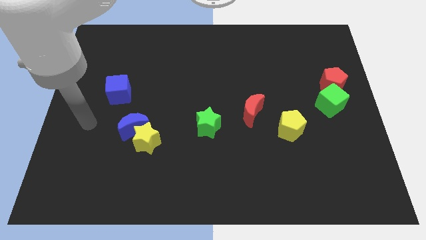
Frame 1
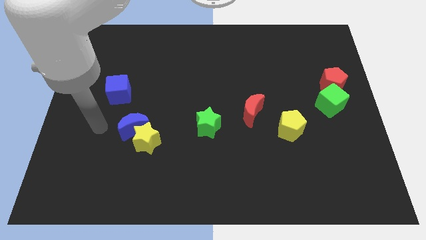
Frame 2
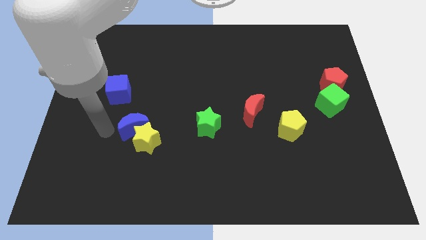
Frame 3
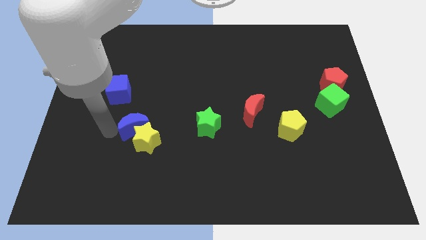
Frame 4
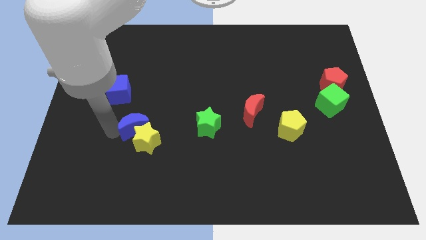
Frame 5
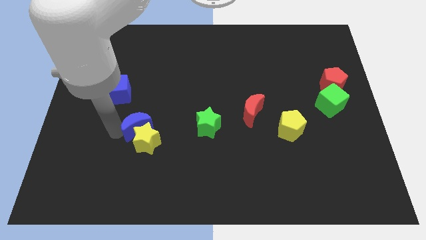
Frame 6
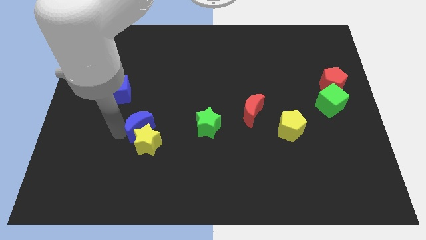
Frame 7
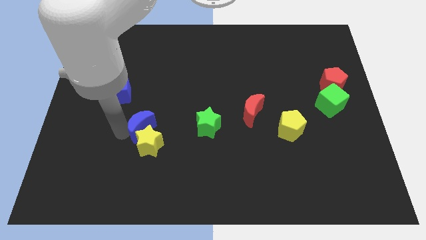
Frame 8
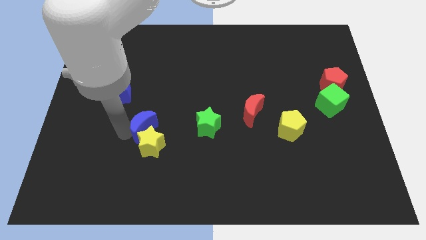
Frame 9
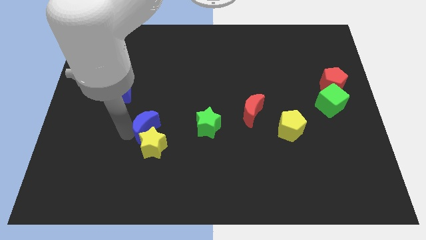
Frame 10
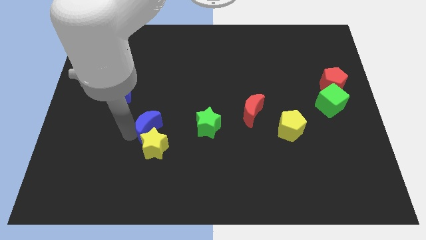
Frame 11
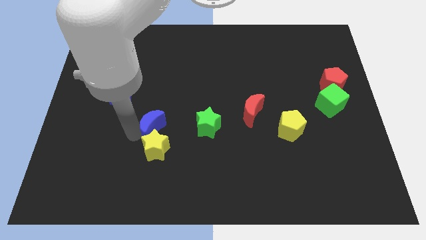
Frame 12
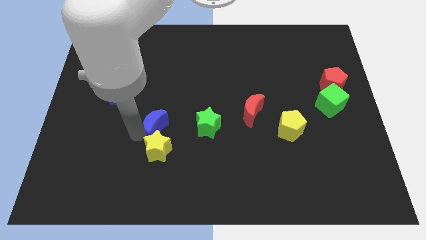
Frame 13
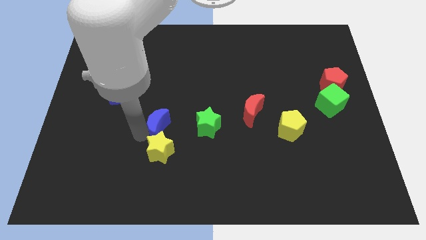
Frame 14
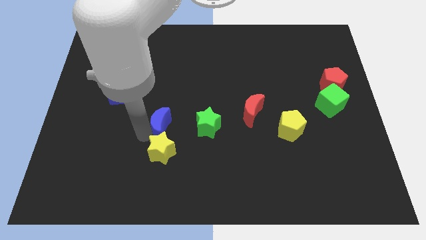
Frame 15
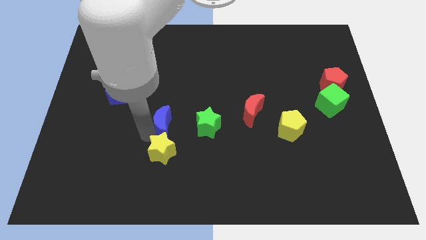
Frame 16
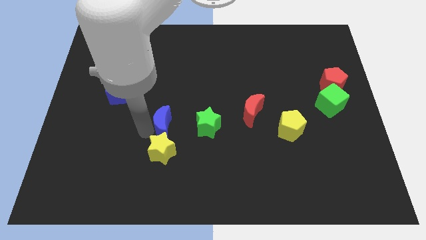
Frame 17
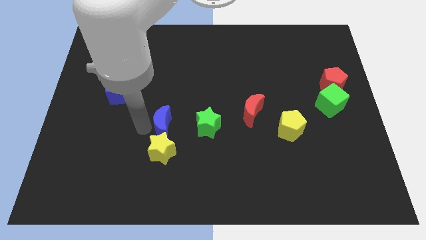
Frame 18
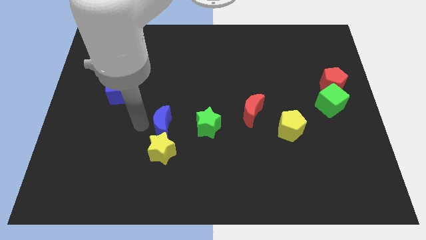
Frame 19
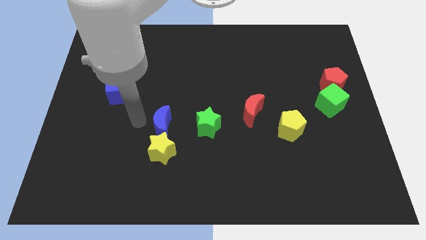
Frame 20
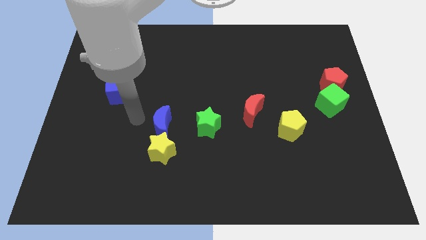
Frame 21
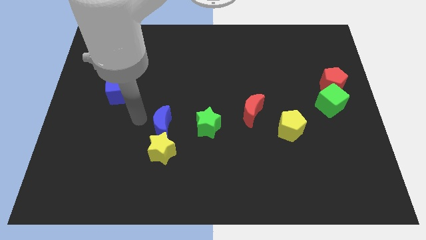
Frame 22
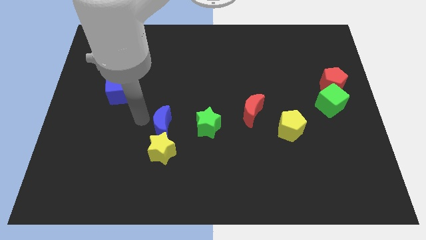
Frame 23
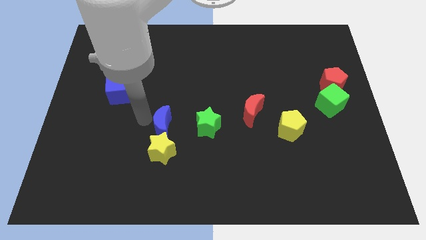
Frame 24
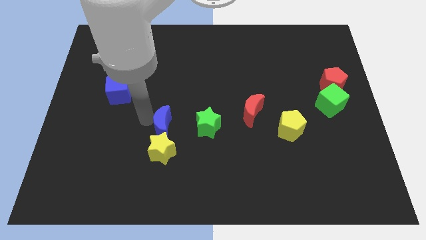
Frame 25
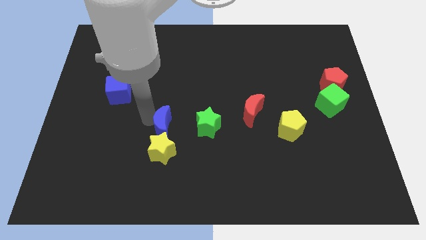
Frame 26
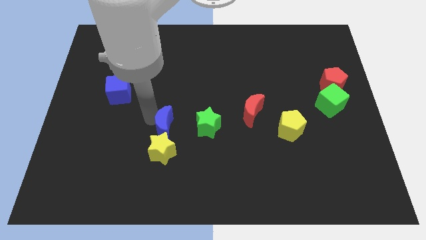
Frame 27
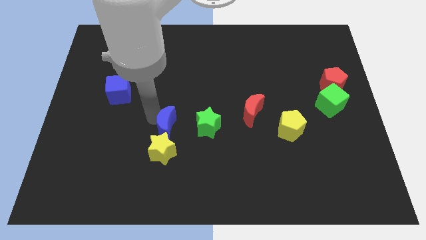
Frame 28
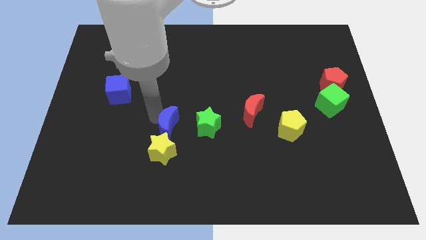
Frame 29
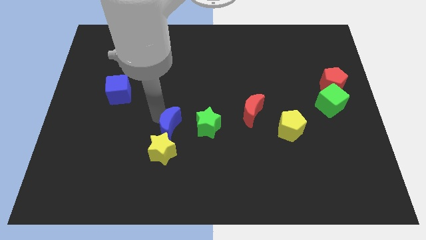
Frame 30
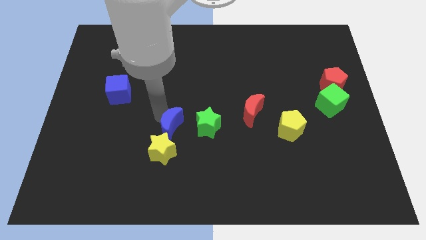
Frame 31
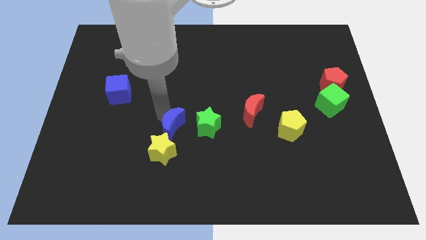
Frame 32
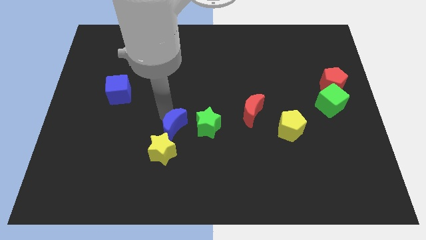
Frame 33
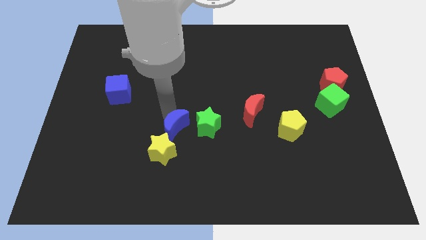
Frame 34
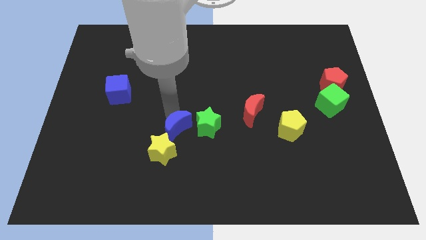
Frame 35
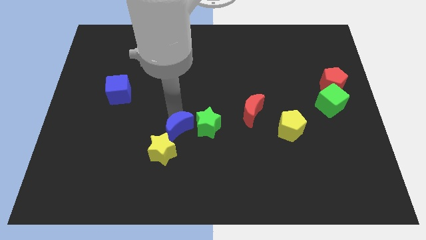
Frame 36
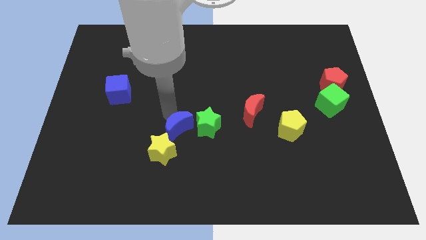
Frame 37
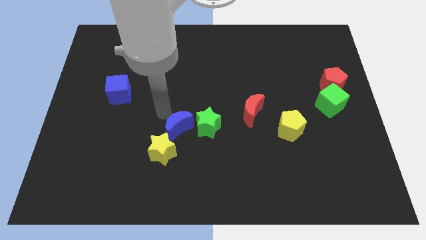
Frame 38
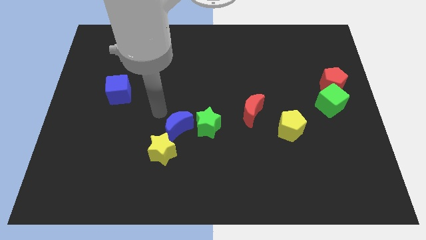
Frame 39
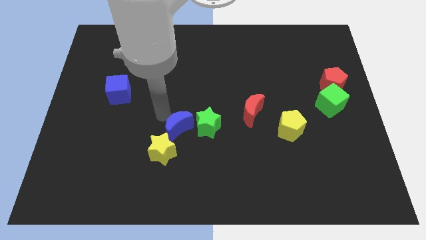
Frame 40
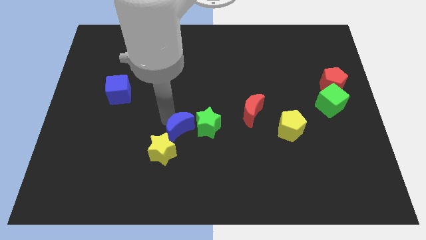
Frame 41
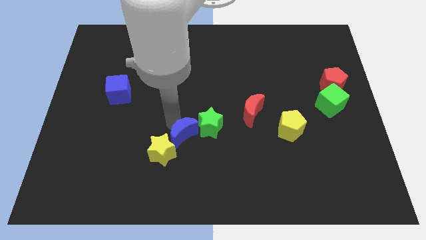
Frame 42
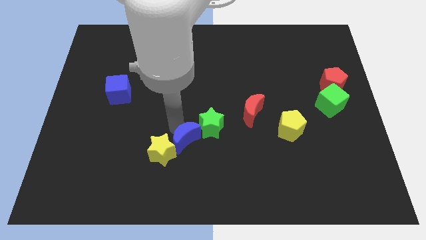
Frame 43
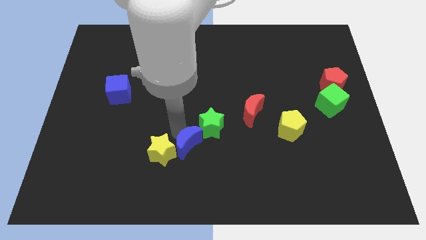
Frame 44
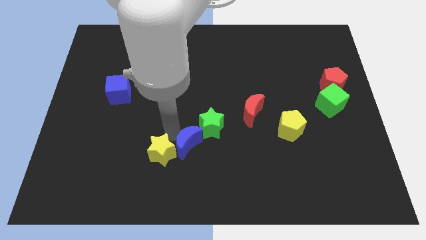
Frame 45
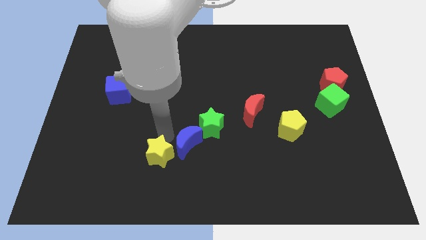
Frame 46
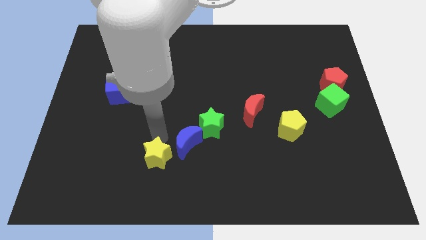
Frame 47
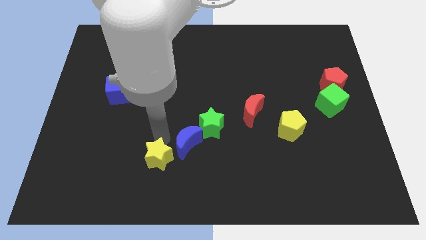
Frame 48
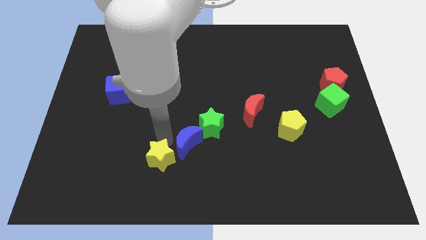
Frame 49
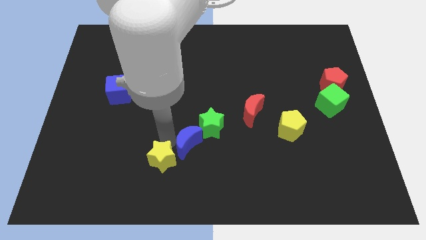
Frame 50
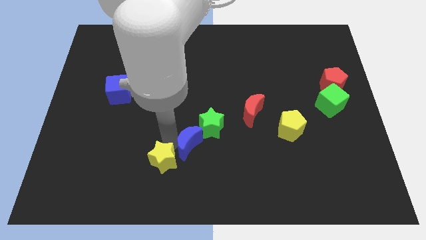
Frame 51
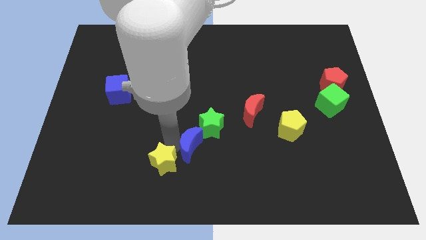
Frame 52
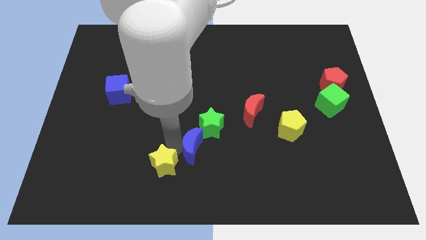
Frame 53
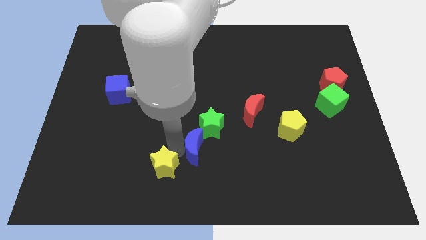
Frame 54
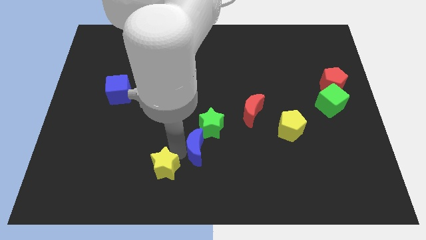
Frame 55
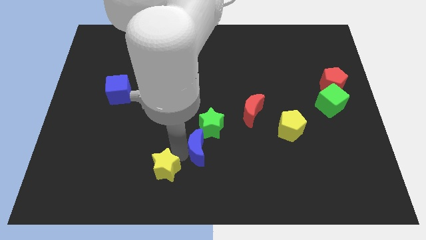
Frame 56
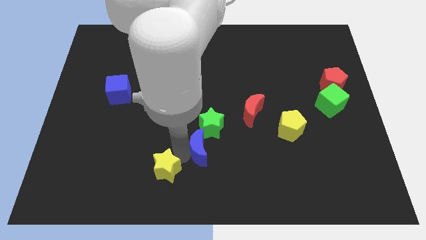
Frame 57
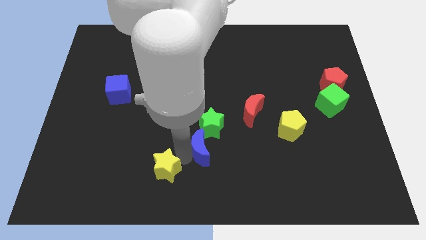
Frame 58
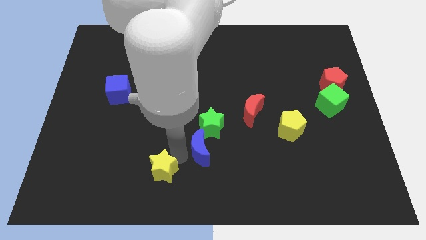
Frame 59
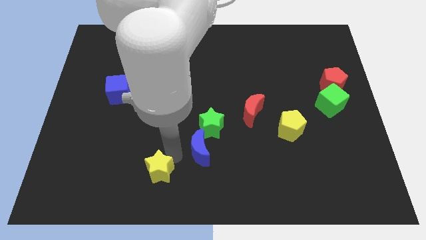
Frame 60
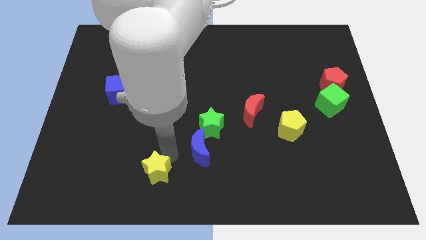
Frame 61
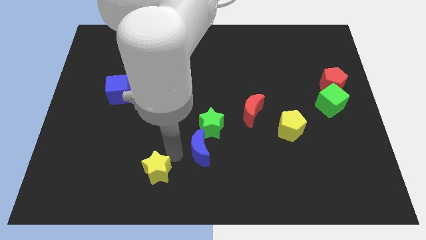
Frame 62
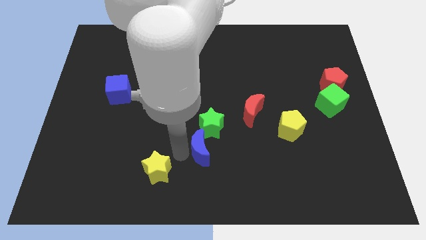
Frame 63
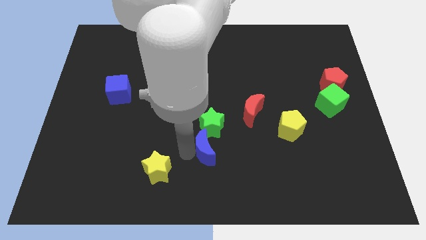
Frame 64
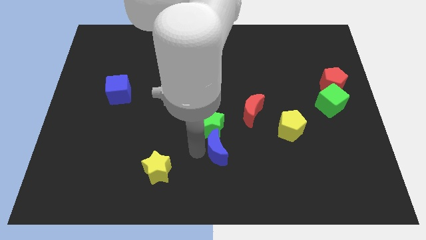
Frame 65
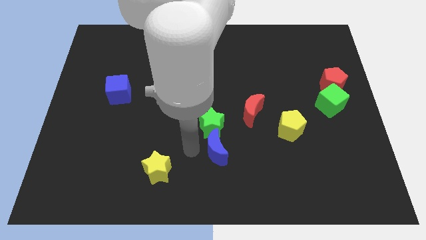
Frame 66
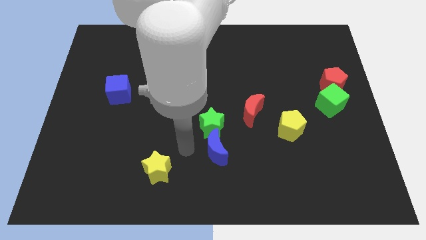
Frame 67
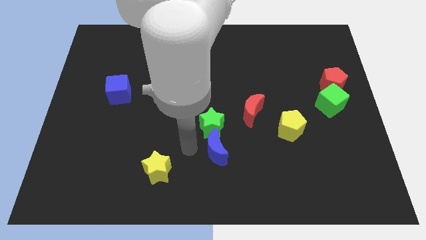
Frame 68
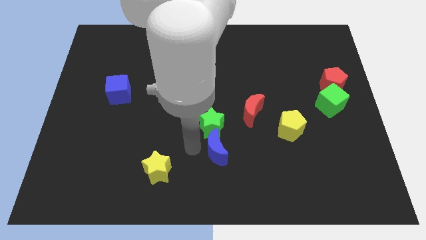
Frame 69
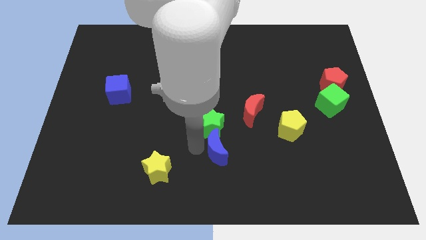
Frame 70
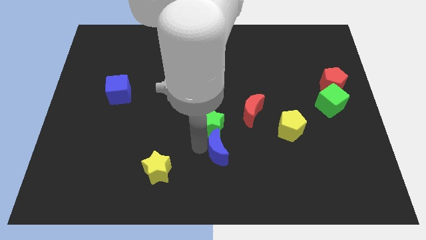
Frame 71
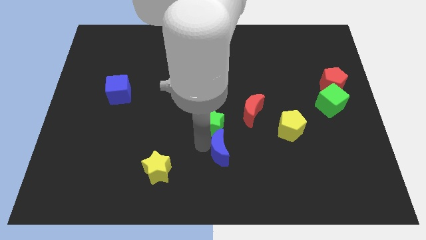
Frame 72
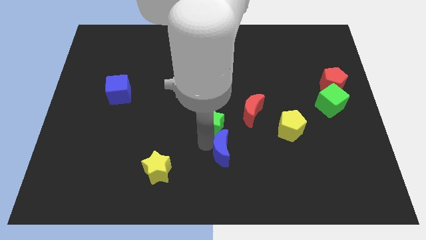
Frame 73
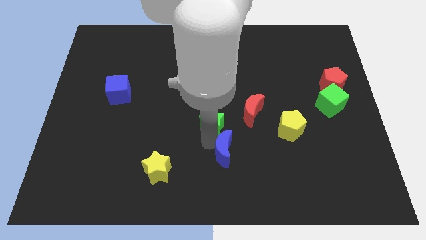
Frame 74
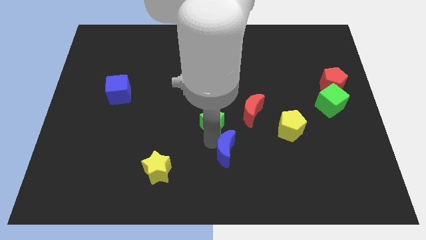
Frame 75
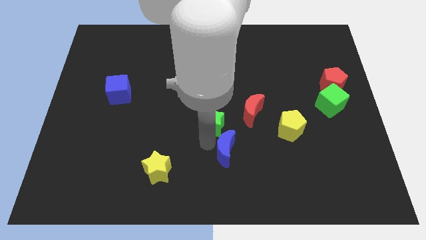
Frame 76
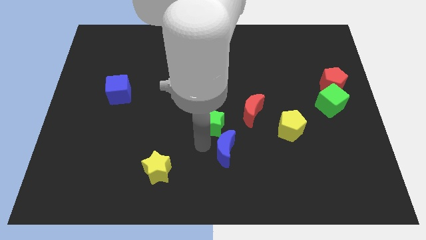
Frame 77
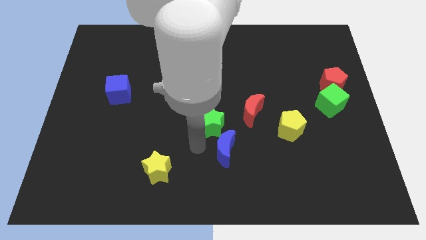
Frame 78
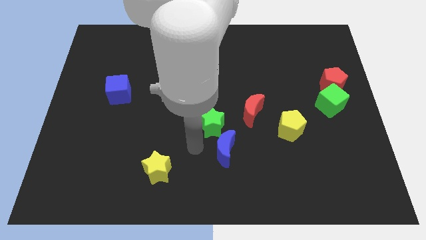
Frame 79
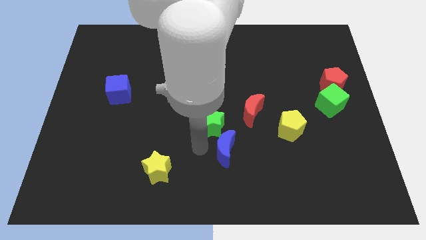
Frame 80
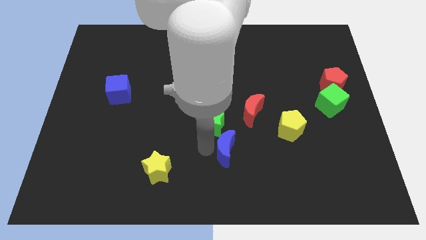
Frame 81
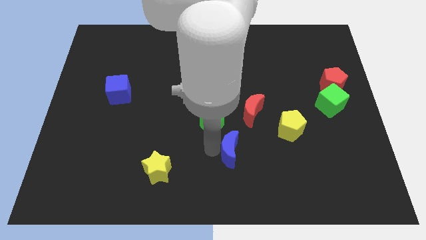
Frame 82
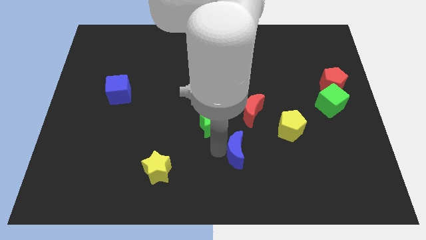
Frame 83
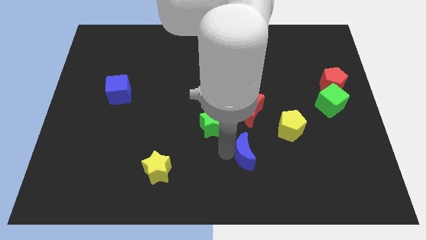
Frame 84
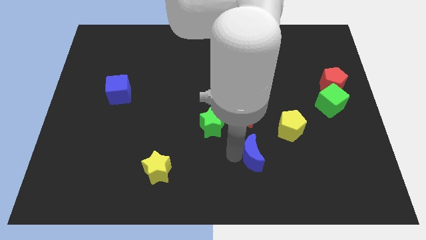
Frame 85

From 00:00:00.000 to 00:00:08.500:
push the blue moon to the bottom left side of the yellow pentagon
